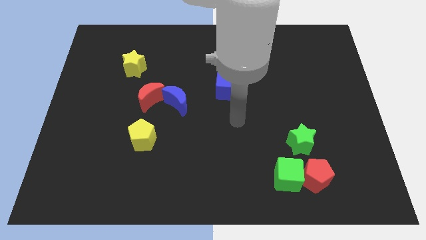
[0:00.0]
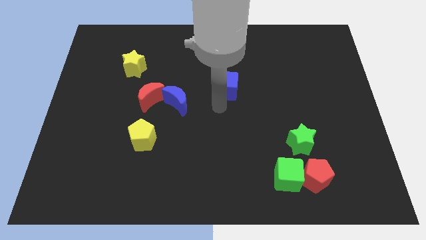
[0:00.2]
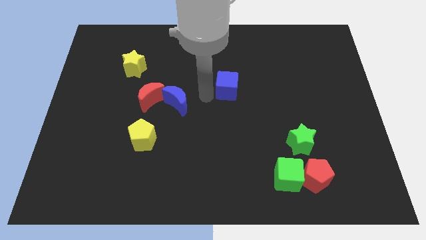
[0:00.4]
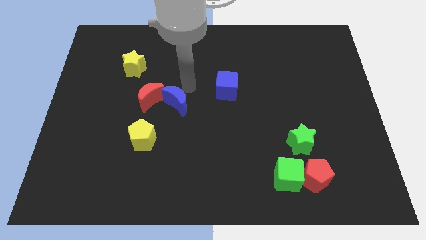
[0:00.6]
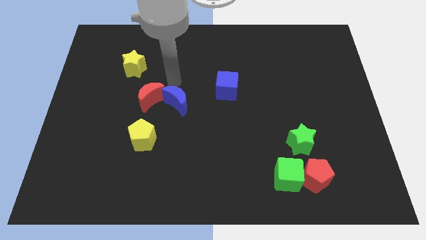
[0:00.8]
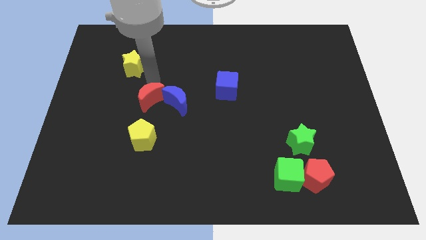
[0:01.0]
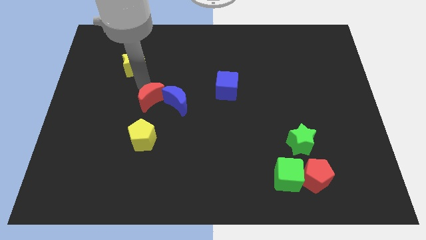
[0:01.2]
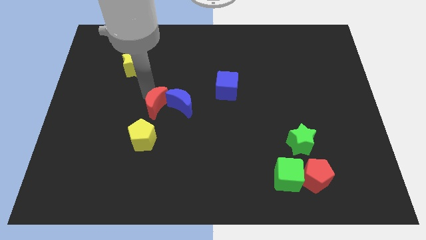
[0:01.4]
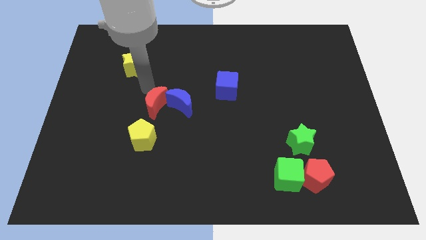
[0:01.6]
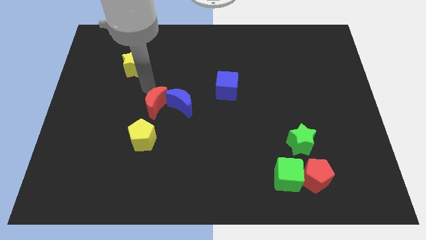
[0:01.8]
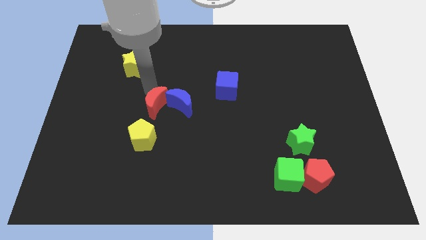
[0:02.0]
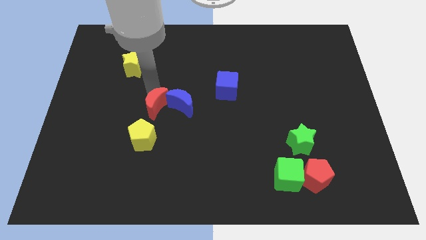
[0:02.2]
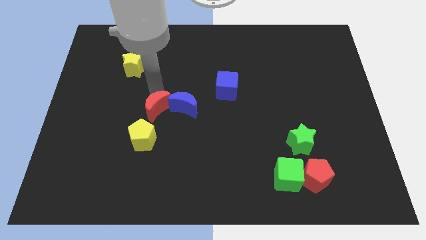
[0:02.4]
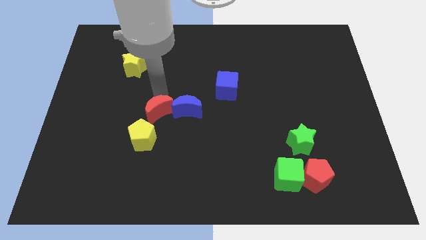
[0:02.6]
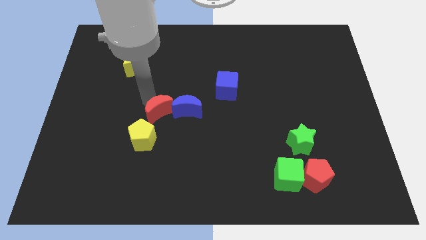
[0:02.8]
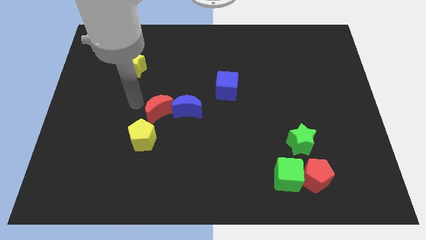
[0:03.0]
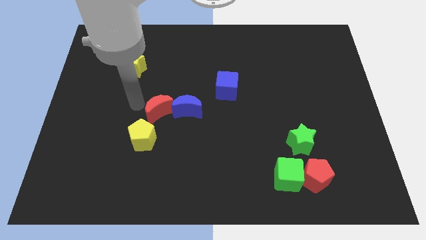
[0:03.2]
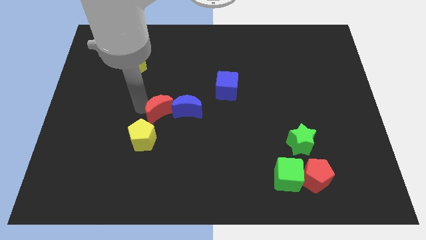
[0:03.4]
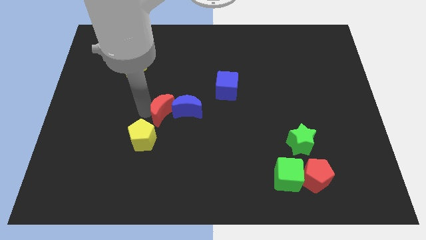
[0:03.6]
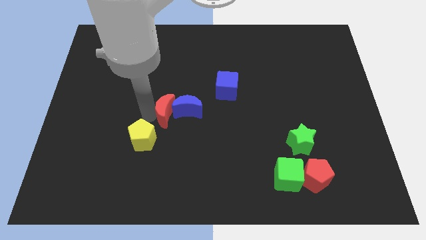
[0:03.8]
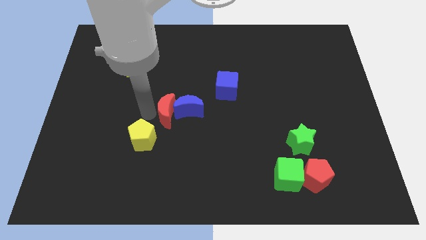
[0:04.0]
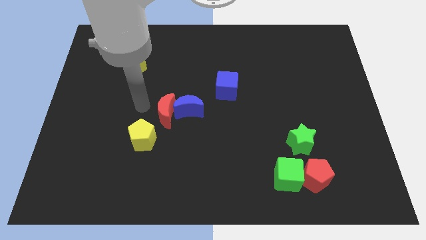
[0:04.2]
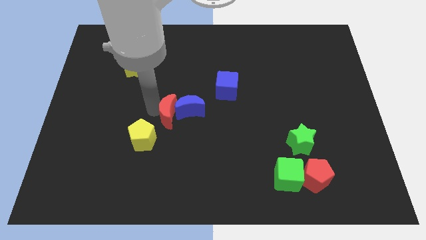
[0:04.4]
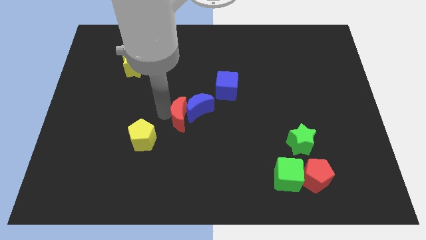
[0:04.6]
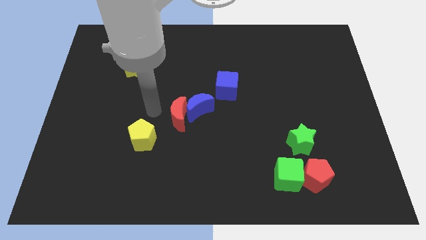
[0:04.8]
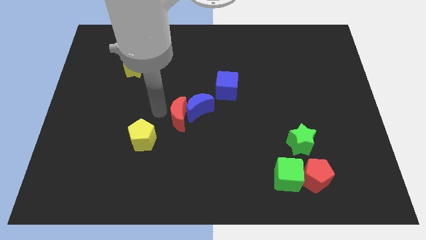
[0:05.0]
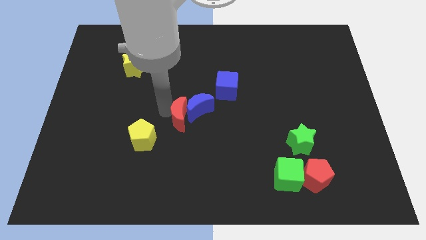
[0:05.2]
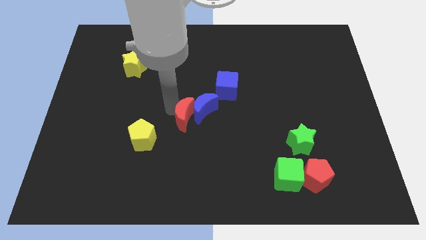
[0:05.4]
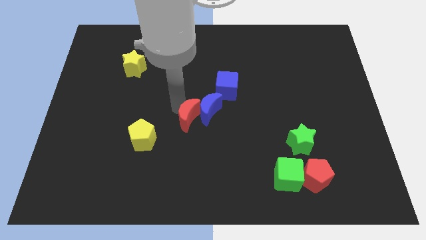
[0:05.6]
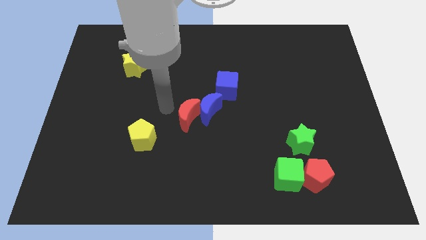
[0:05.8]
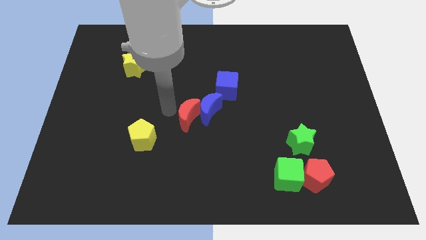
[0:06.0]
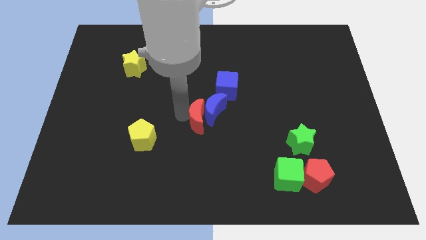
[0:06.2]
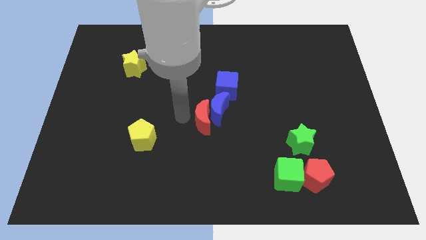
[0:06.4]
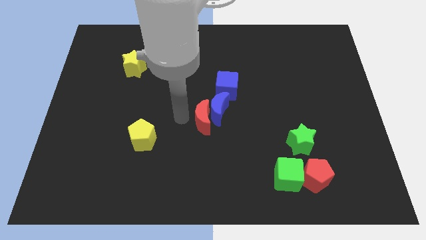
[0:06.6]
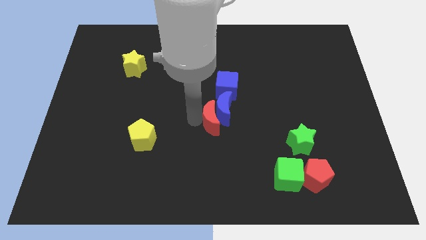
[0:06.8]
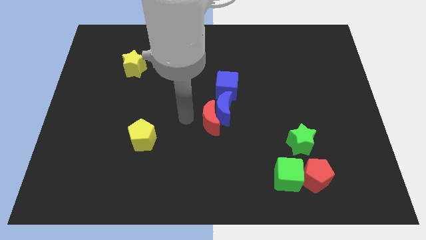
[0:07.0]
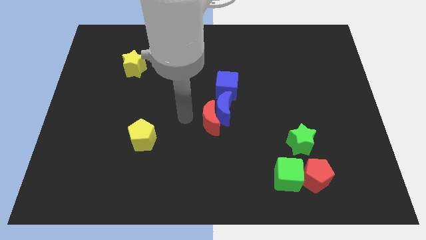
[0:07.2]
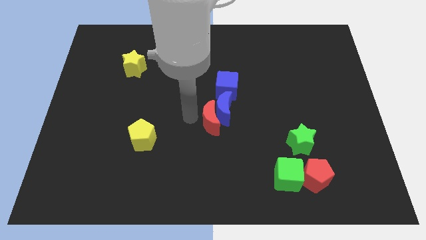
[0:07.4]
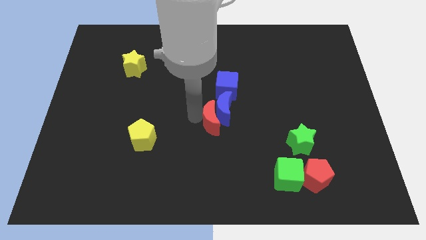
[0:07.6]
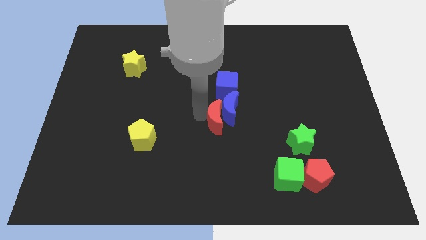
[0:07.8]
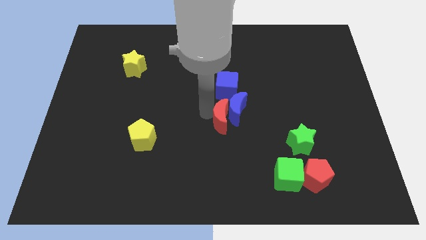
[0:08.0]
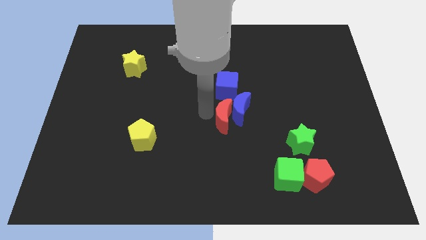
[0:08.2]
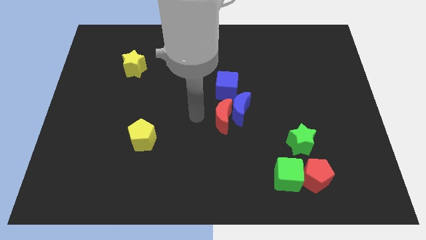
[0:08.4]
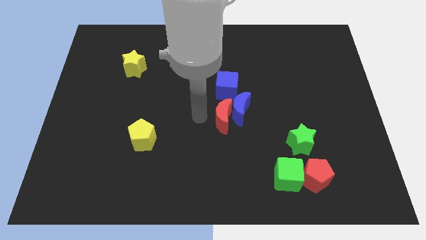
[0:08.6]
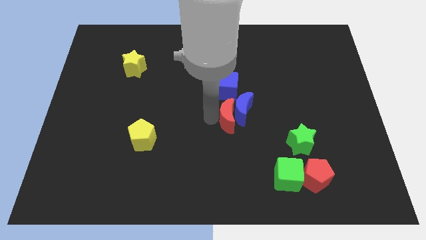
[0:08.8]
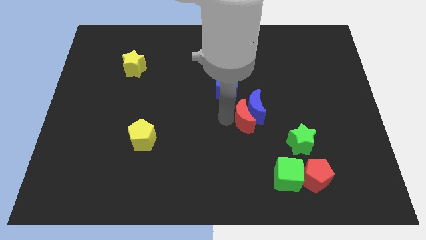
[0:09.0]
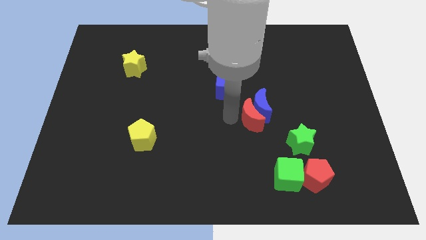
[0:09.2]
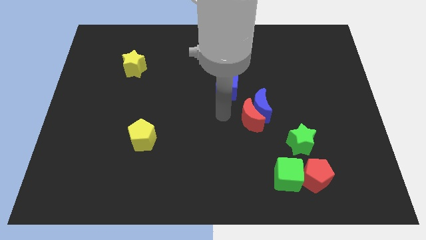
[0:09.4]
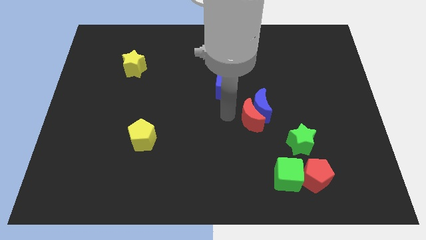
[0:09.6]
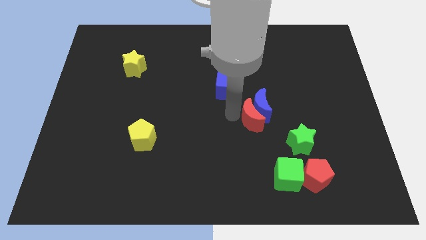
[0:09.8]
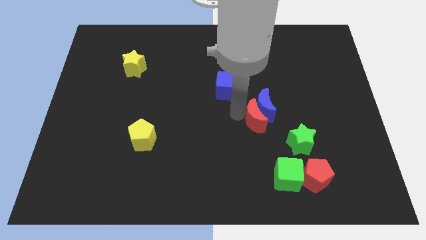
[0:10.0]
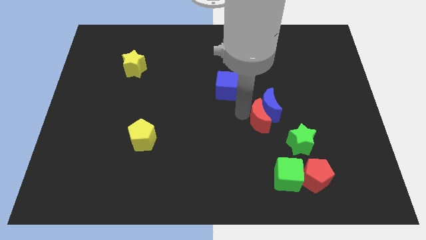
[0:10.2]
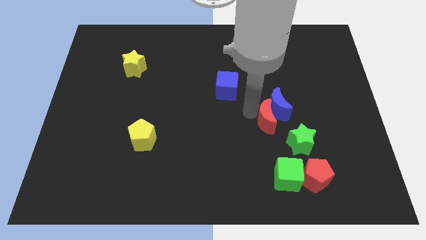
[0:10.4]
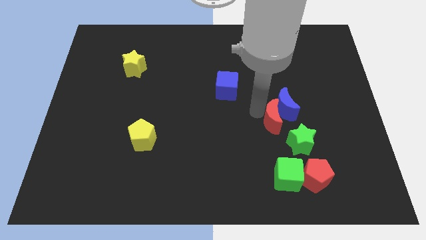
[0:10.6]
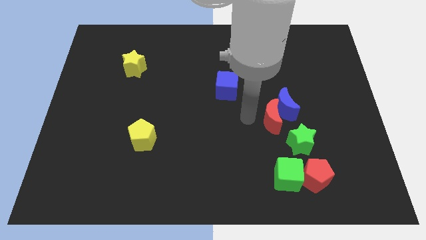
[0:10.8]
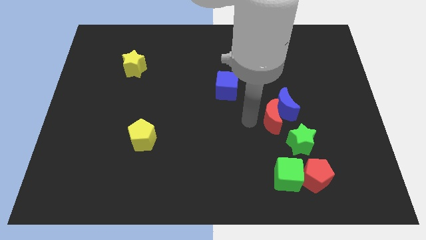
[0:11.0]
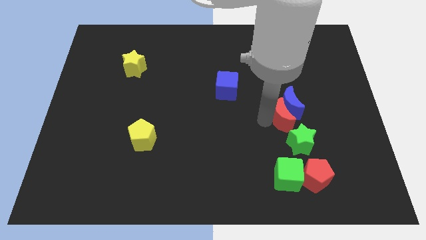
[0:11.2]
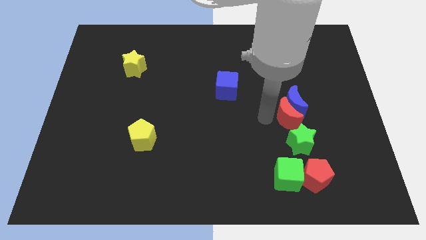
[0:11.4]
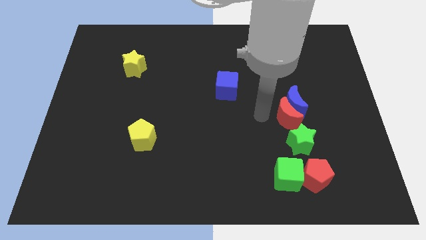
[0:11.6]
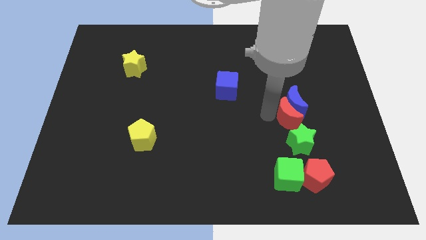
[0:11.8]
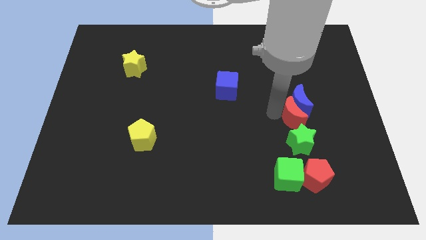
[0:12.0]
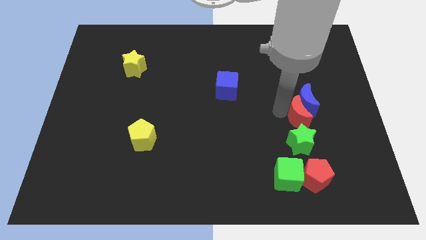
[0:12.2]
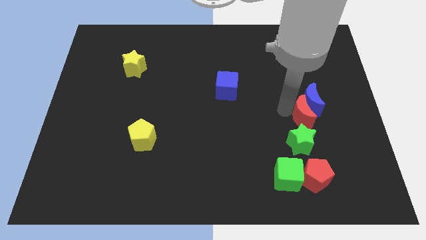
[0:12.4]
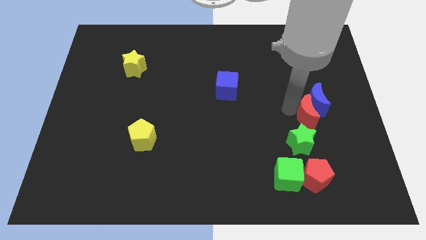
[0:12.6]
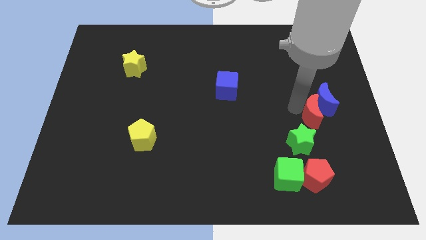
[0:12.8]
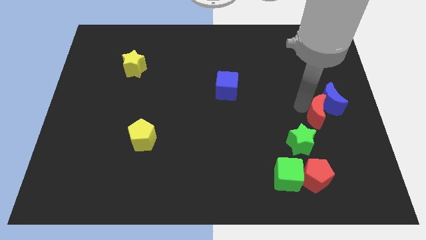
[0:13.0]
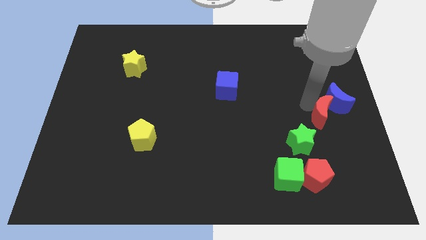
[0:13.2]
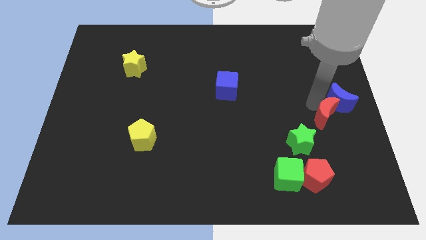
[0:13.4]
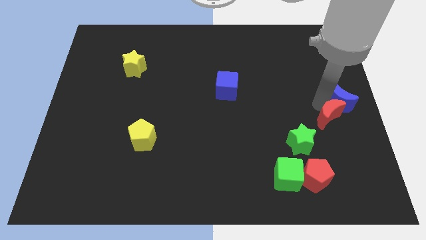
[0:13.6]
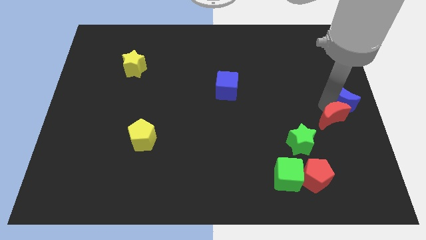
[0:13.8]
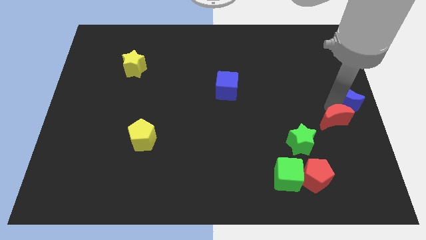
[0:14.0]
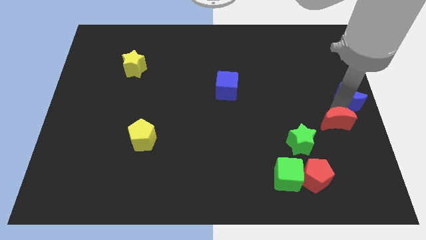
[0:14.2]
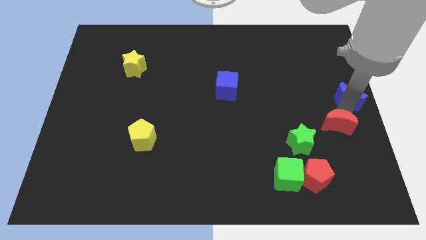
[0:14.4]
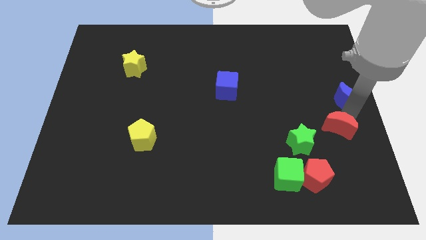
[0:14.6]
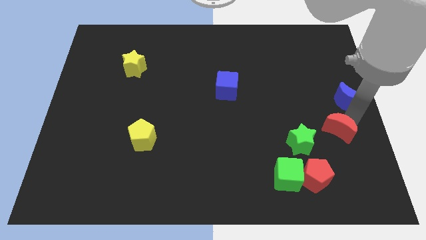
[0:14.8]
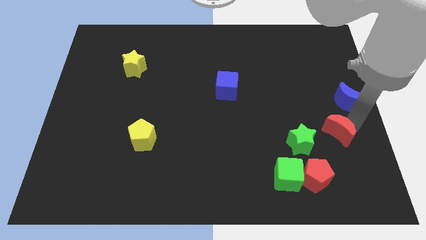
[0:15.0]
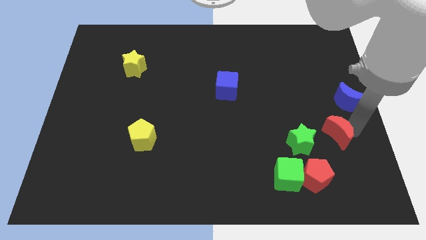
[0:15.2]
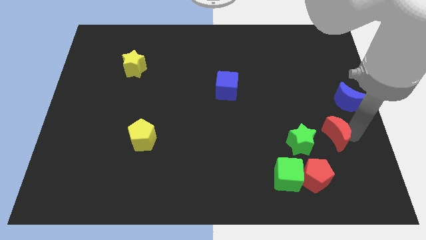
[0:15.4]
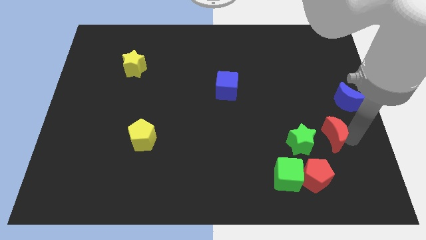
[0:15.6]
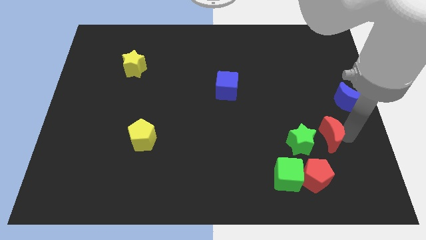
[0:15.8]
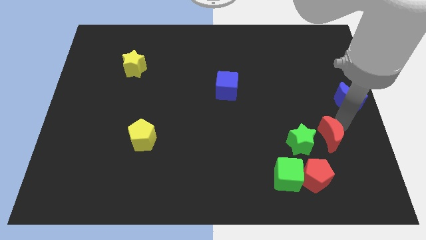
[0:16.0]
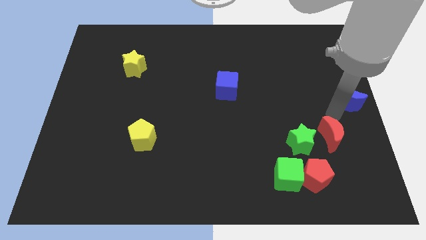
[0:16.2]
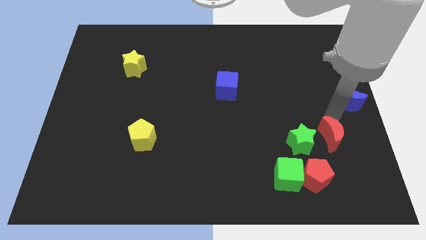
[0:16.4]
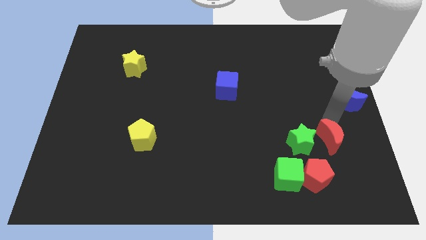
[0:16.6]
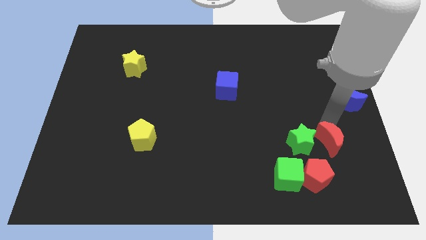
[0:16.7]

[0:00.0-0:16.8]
slide the red moon to the bottom right of the green star
